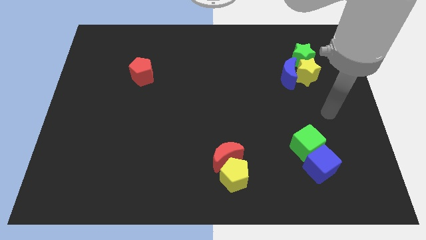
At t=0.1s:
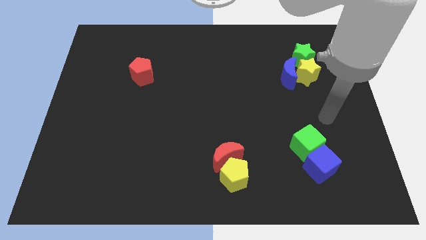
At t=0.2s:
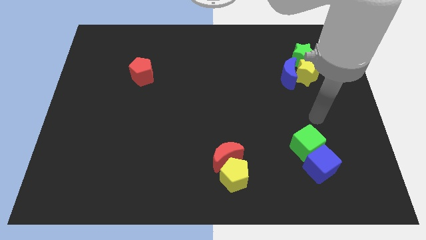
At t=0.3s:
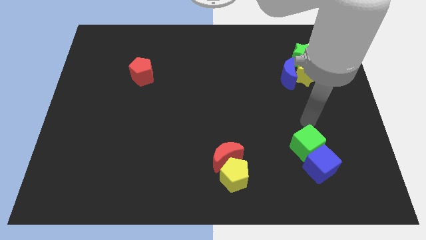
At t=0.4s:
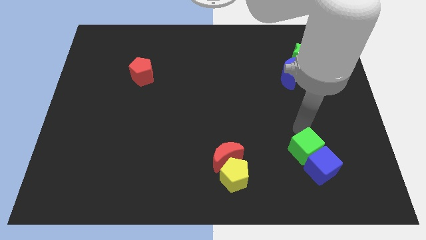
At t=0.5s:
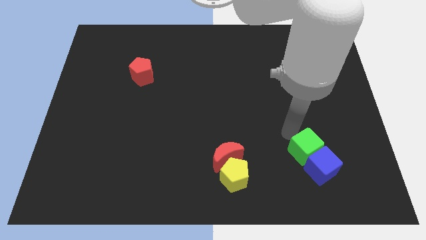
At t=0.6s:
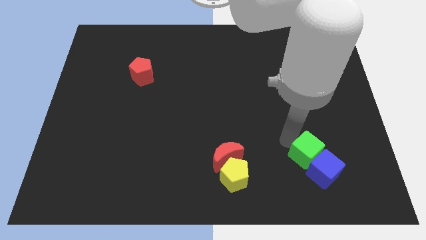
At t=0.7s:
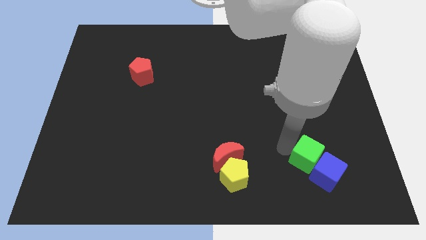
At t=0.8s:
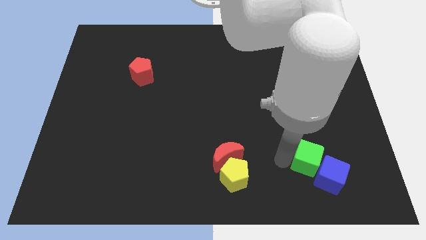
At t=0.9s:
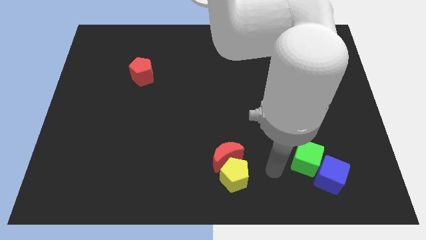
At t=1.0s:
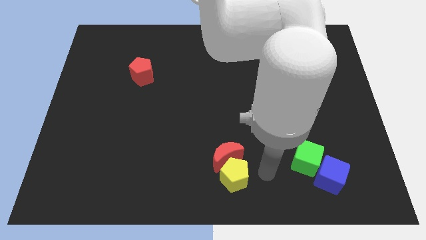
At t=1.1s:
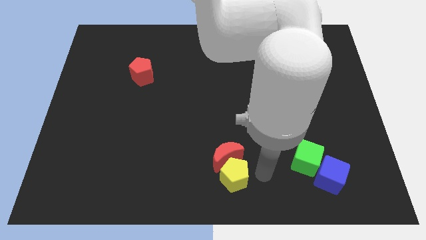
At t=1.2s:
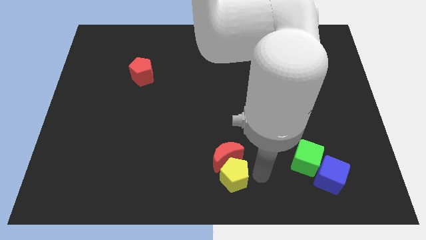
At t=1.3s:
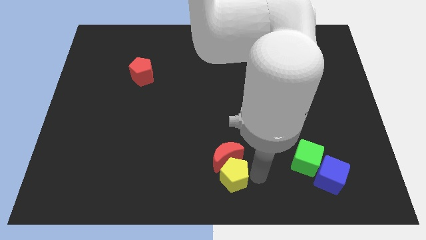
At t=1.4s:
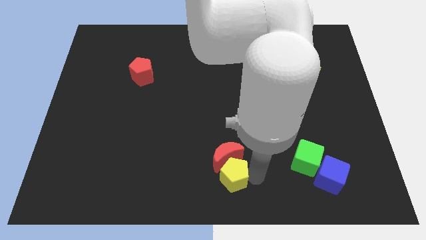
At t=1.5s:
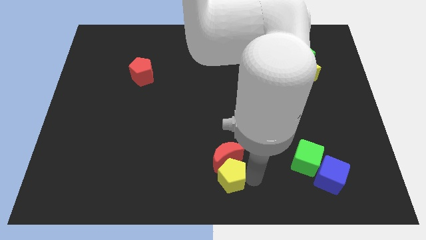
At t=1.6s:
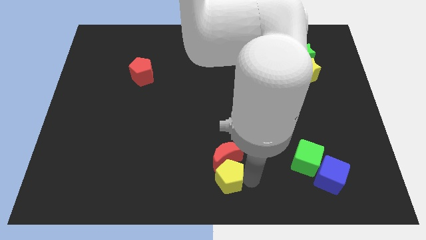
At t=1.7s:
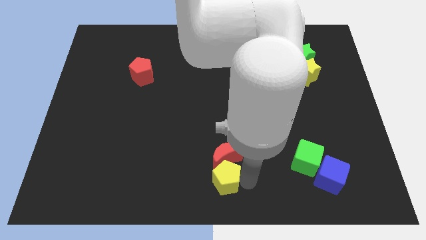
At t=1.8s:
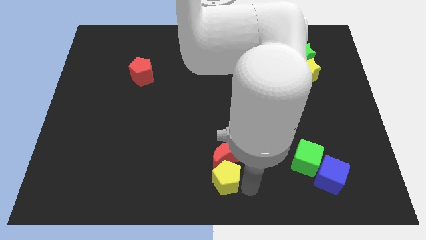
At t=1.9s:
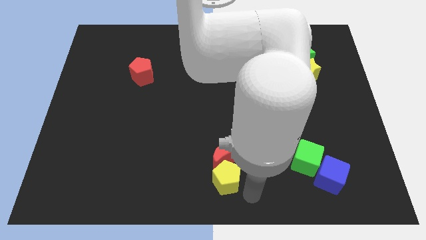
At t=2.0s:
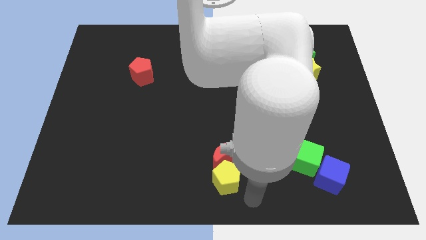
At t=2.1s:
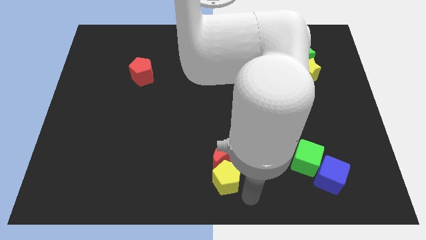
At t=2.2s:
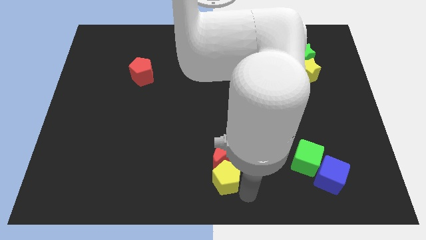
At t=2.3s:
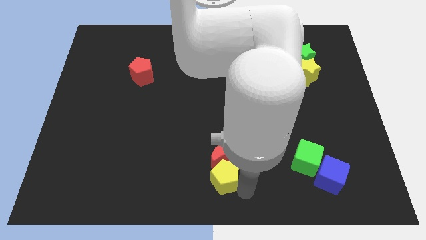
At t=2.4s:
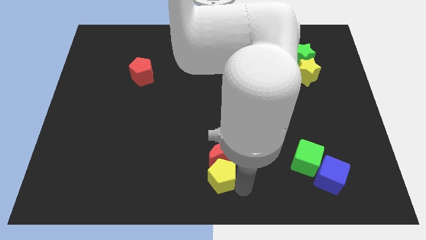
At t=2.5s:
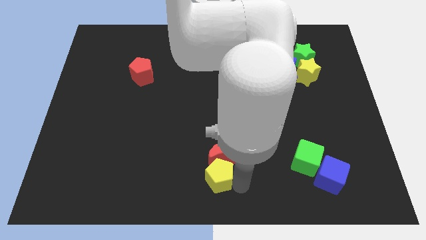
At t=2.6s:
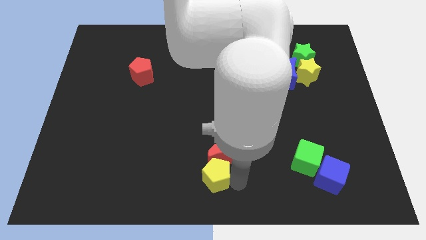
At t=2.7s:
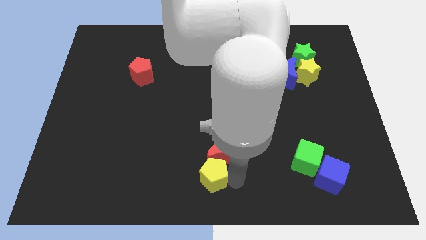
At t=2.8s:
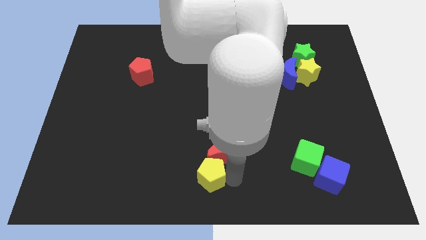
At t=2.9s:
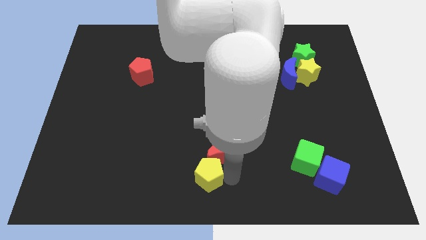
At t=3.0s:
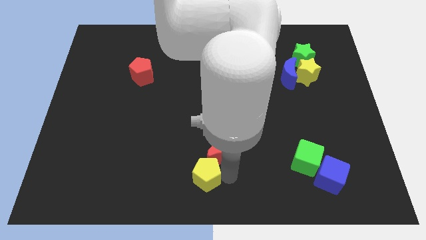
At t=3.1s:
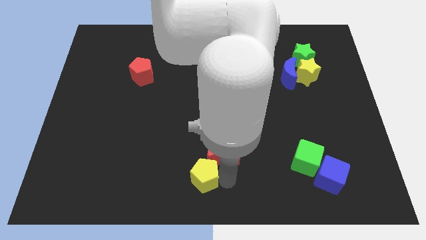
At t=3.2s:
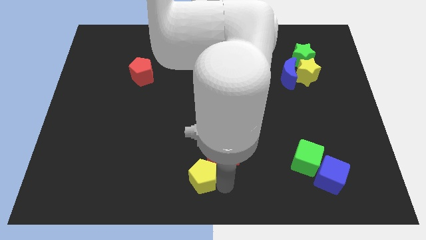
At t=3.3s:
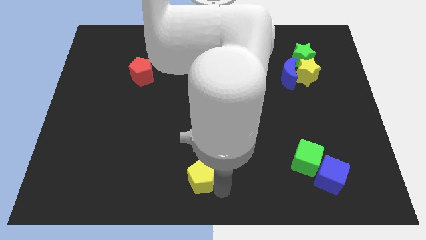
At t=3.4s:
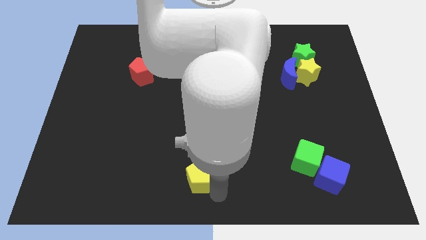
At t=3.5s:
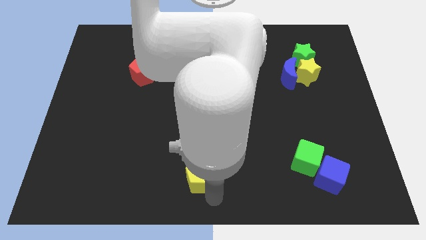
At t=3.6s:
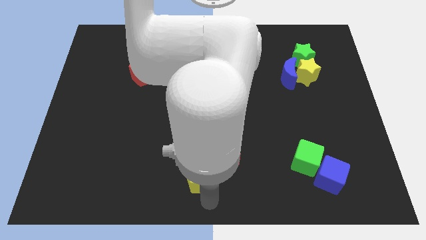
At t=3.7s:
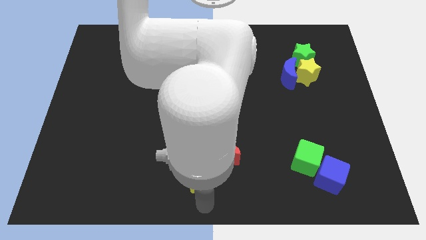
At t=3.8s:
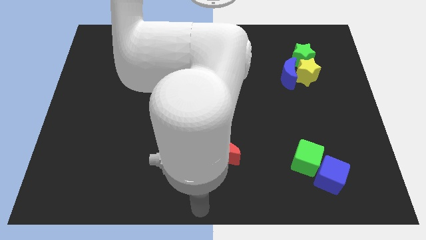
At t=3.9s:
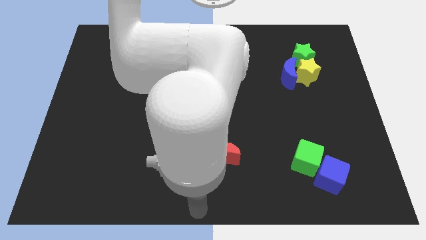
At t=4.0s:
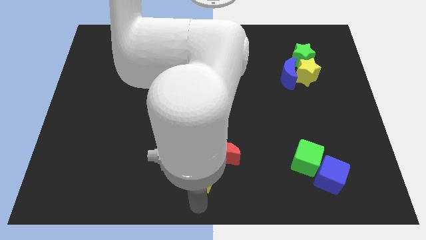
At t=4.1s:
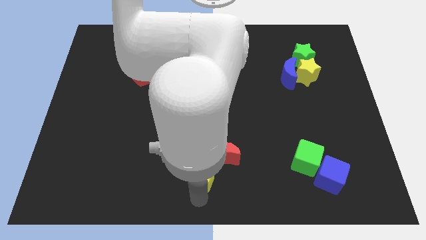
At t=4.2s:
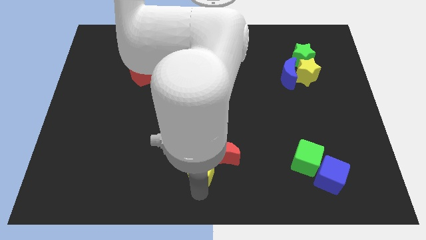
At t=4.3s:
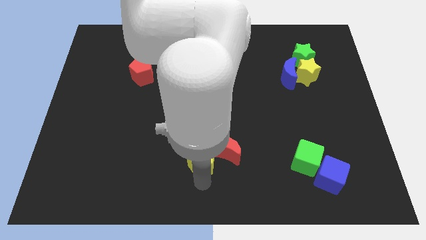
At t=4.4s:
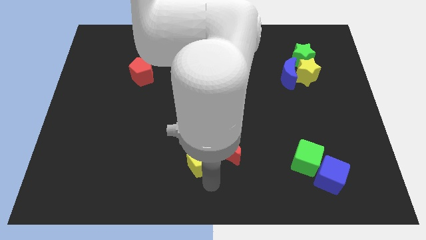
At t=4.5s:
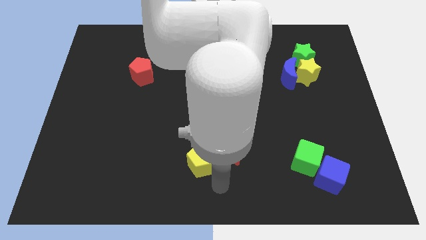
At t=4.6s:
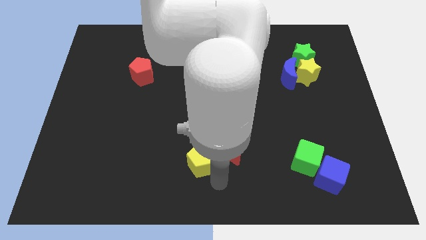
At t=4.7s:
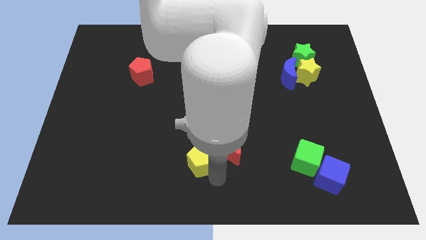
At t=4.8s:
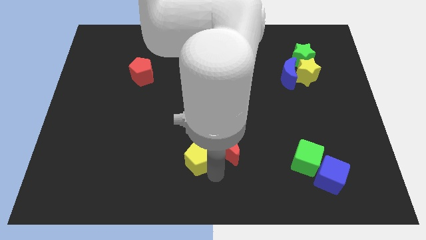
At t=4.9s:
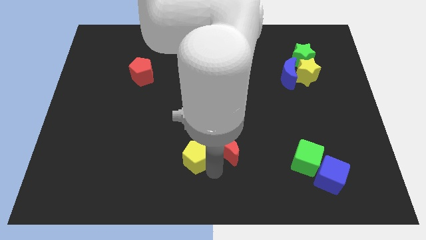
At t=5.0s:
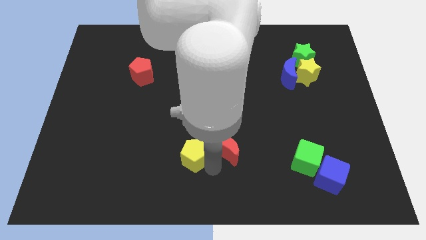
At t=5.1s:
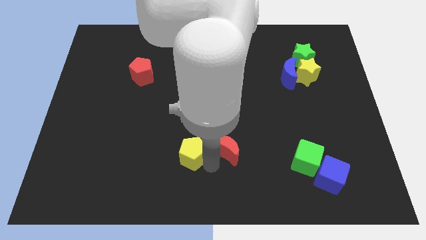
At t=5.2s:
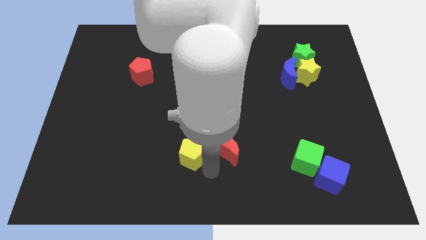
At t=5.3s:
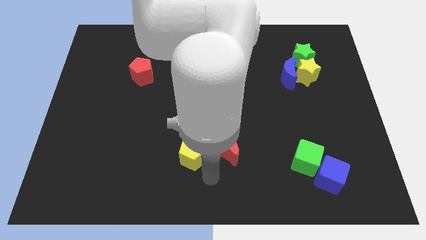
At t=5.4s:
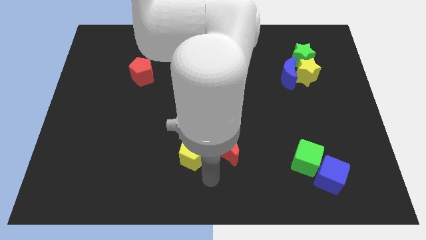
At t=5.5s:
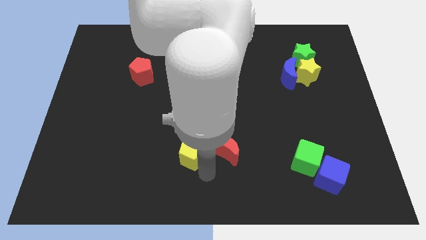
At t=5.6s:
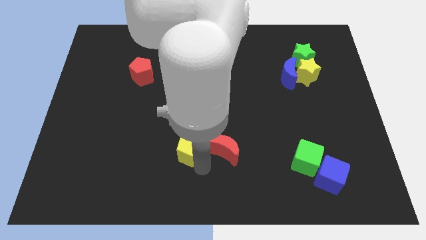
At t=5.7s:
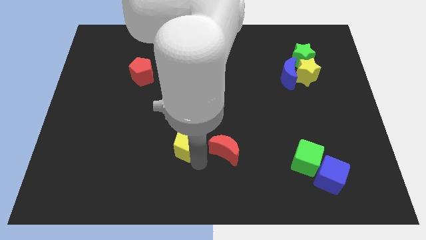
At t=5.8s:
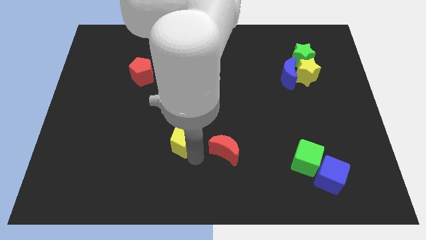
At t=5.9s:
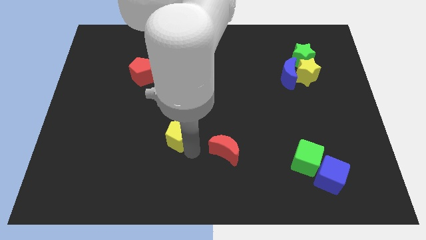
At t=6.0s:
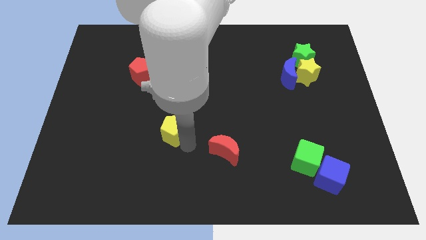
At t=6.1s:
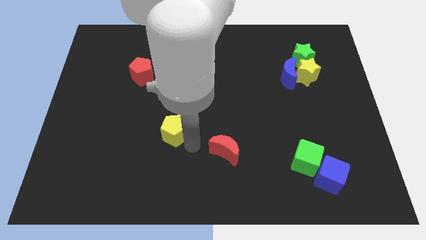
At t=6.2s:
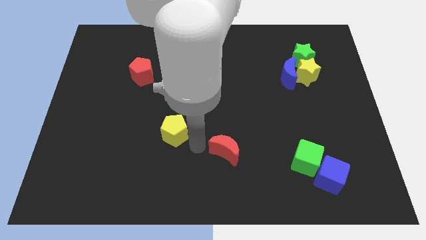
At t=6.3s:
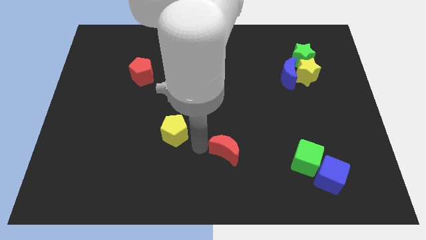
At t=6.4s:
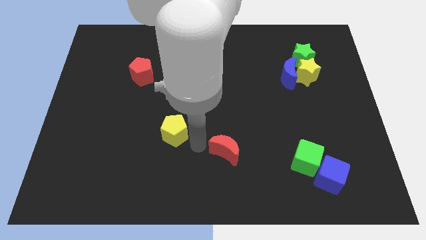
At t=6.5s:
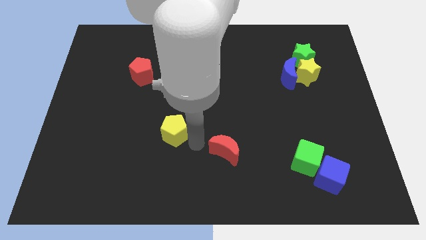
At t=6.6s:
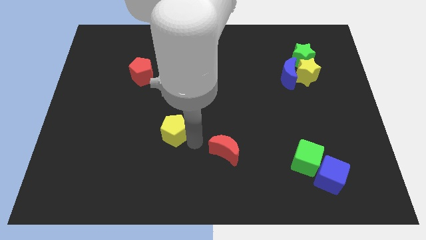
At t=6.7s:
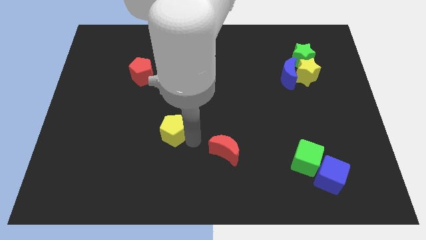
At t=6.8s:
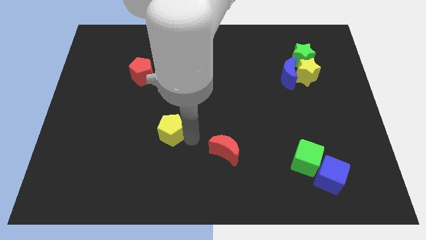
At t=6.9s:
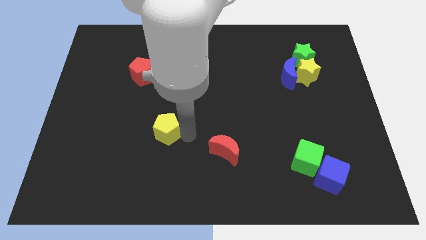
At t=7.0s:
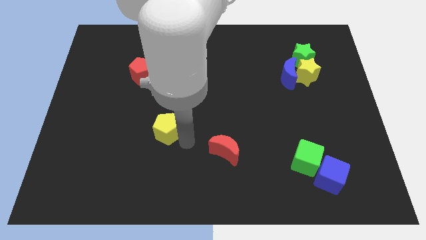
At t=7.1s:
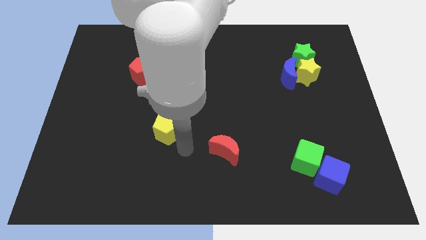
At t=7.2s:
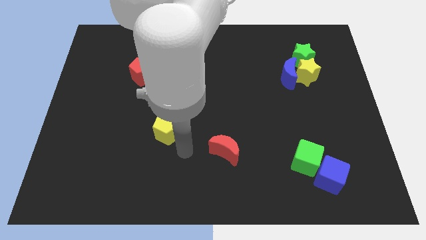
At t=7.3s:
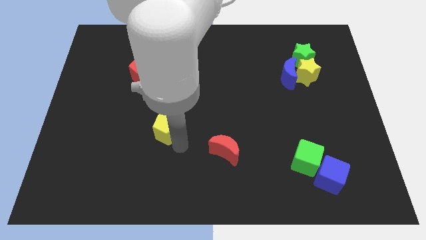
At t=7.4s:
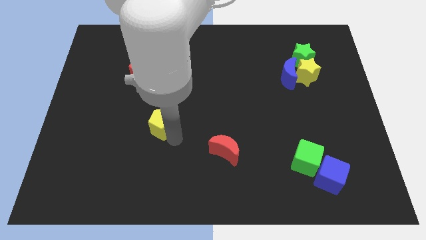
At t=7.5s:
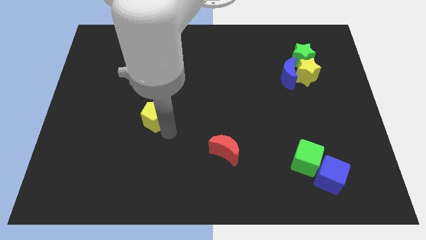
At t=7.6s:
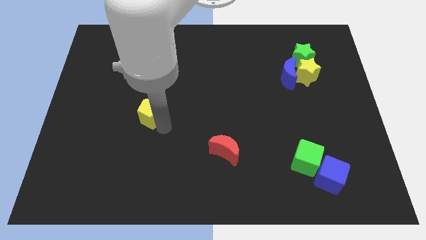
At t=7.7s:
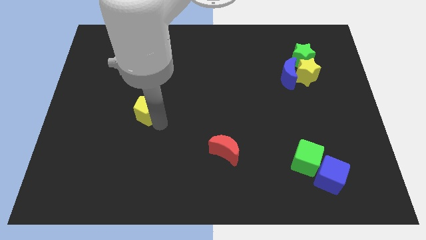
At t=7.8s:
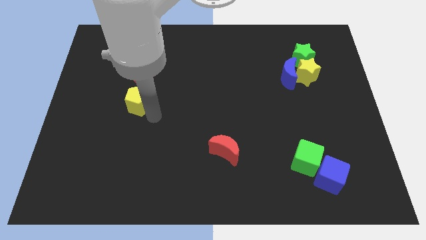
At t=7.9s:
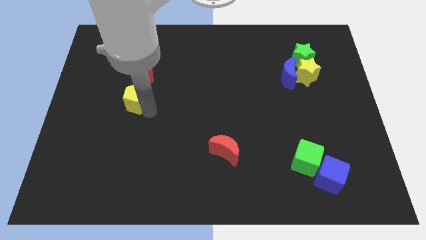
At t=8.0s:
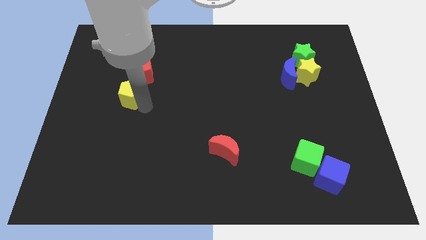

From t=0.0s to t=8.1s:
move the yellow pentagon to the bottom left side of the red pentagon
